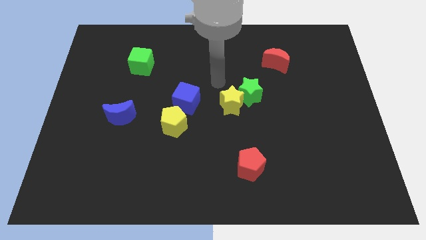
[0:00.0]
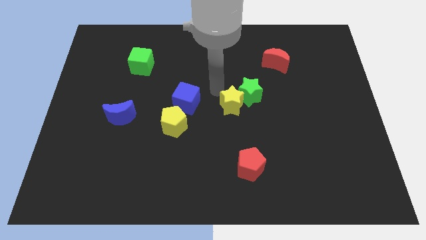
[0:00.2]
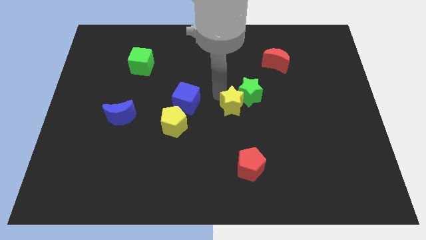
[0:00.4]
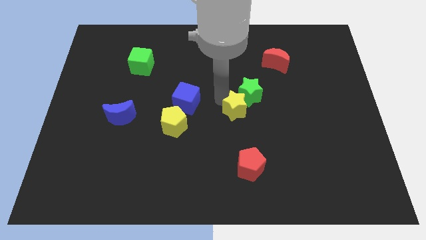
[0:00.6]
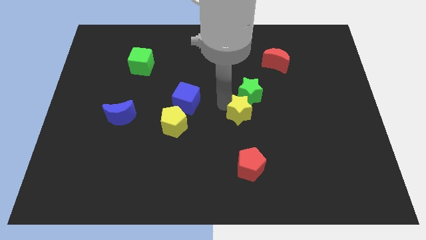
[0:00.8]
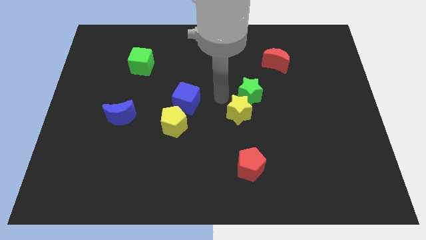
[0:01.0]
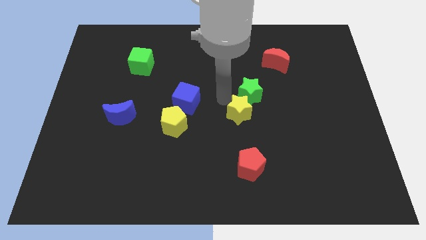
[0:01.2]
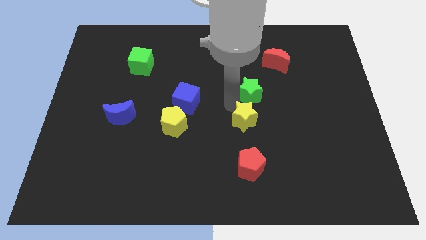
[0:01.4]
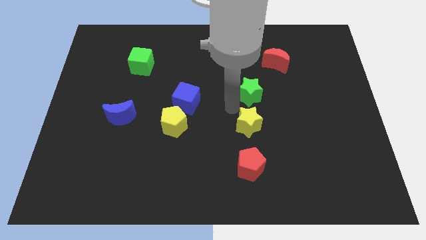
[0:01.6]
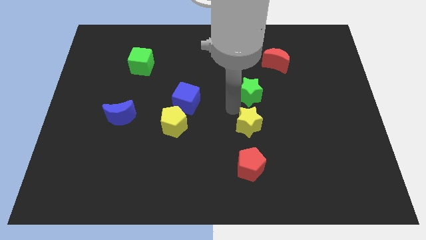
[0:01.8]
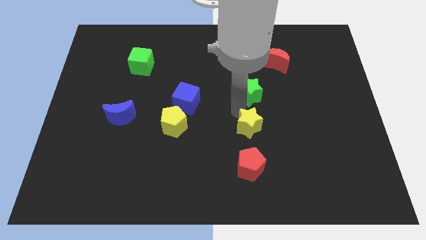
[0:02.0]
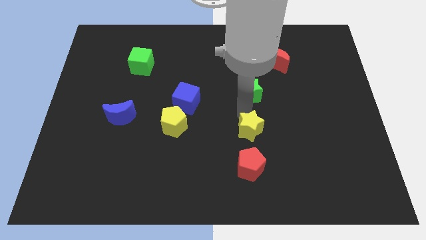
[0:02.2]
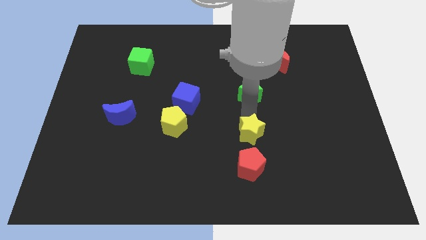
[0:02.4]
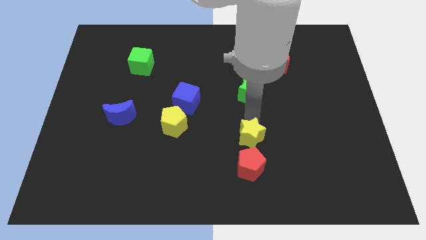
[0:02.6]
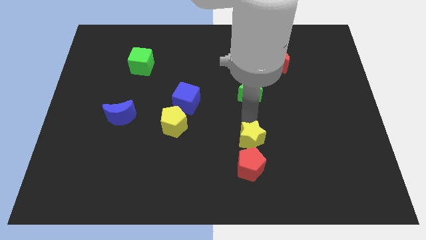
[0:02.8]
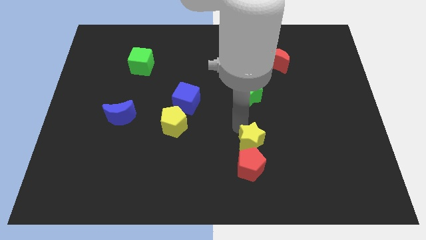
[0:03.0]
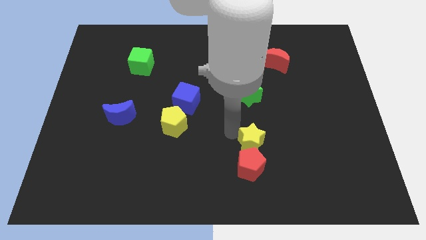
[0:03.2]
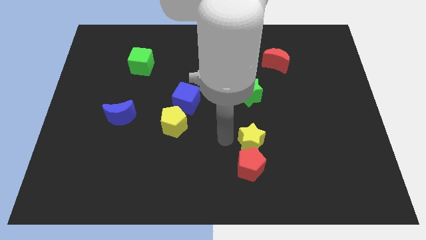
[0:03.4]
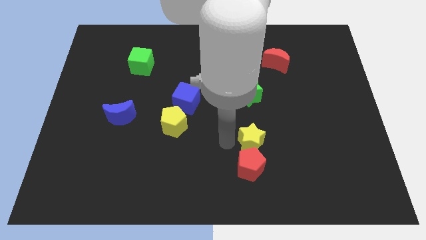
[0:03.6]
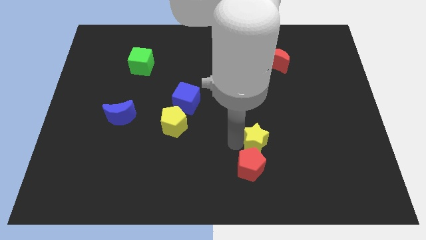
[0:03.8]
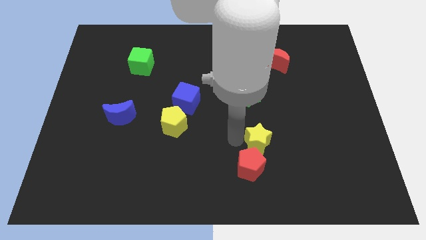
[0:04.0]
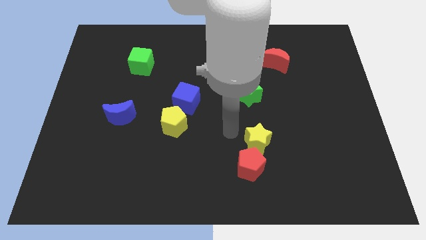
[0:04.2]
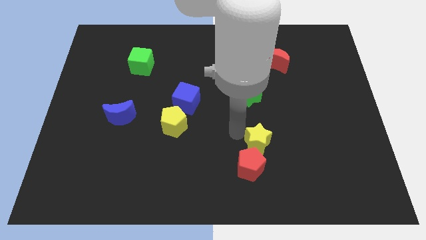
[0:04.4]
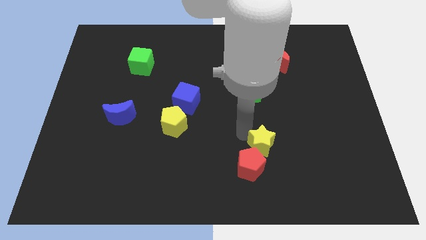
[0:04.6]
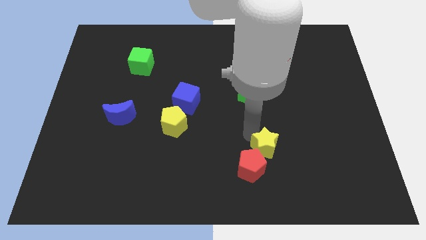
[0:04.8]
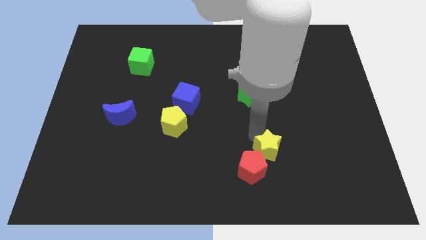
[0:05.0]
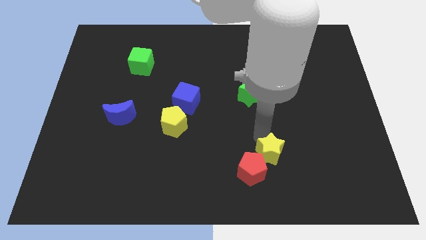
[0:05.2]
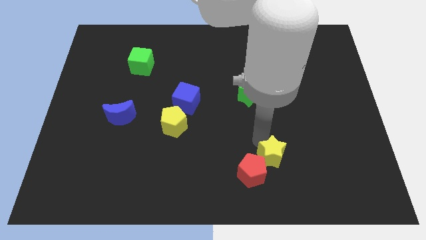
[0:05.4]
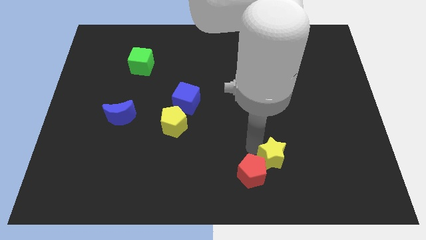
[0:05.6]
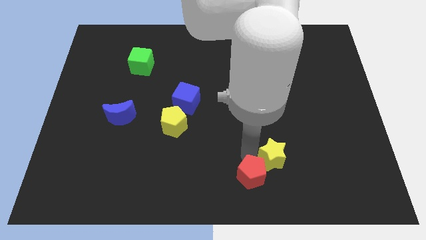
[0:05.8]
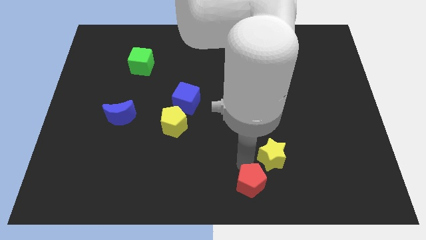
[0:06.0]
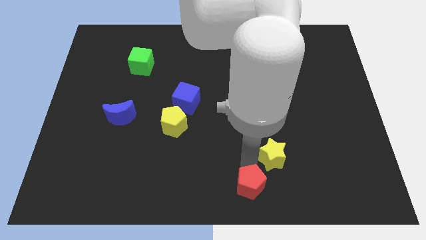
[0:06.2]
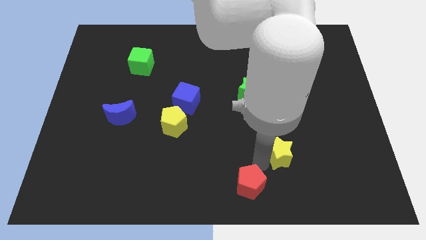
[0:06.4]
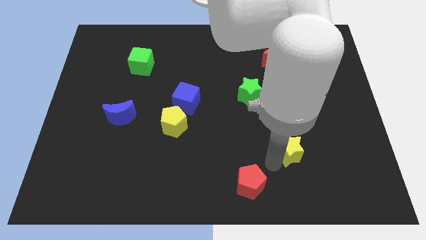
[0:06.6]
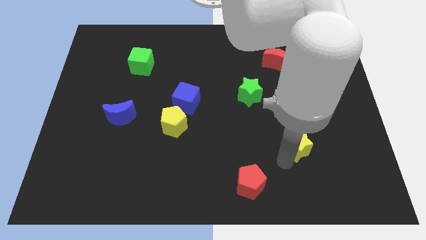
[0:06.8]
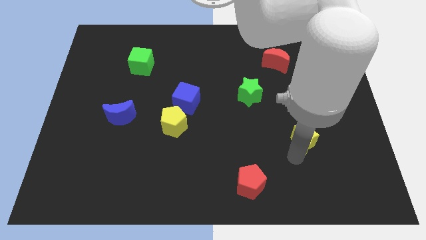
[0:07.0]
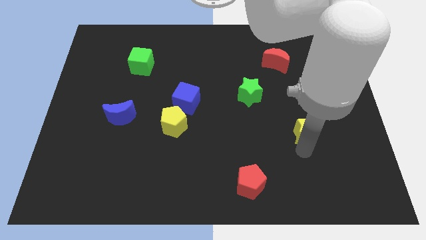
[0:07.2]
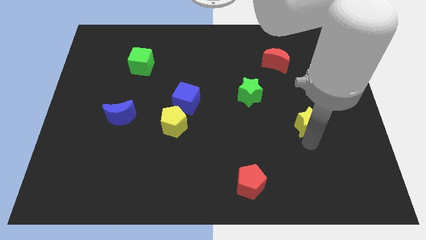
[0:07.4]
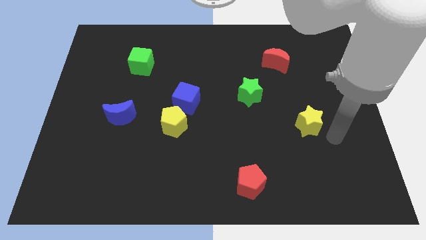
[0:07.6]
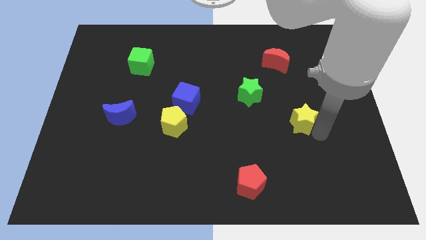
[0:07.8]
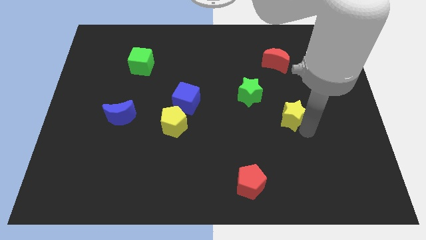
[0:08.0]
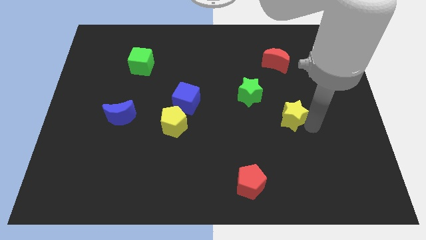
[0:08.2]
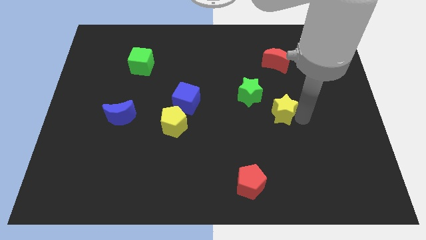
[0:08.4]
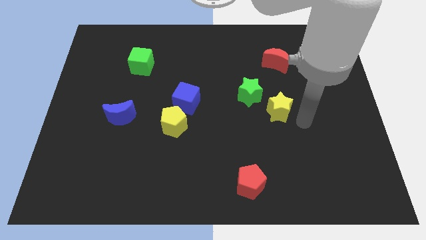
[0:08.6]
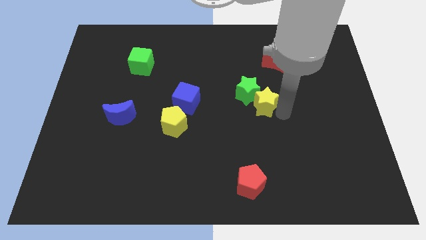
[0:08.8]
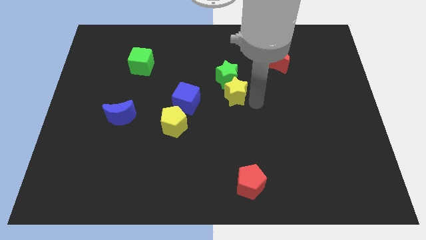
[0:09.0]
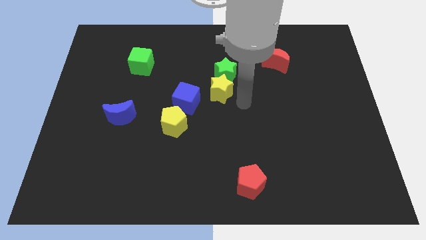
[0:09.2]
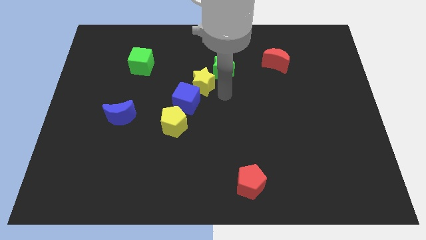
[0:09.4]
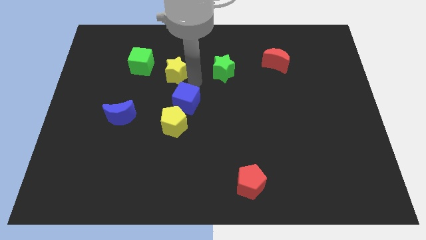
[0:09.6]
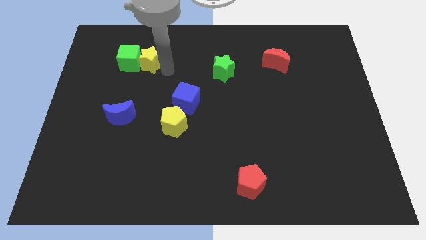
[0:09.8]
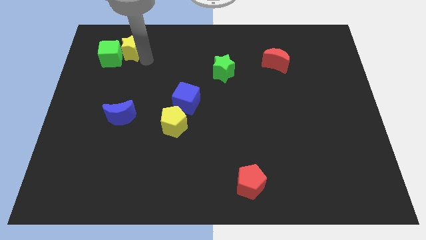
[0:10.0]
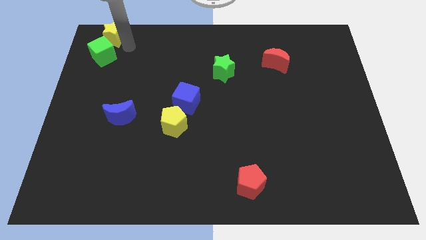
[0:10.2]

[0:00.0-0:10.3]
move the yellow star to the upper left corner

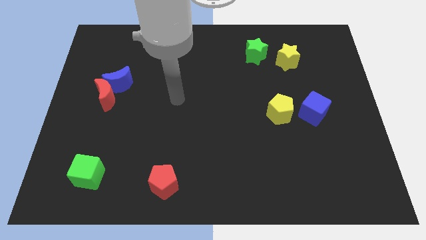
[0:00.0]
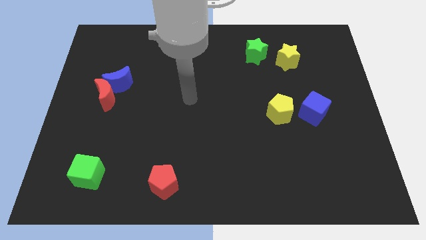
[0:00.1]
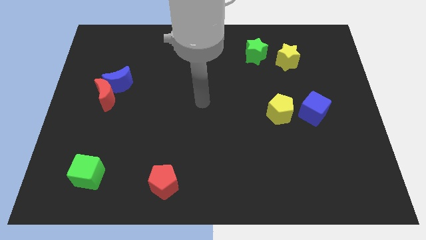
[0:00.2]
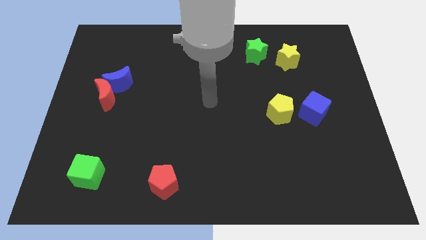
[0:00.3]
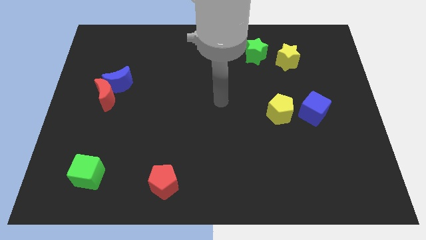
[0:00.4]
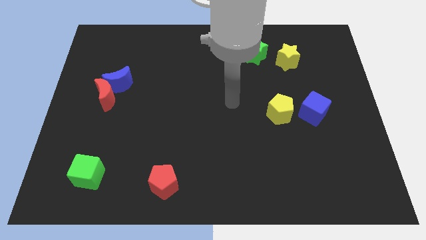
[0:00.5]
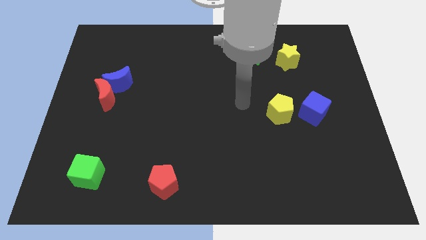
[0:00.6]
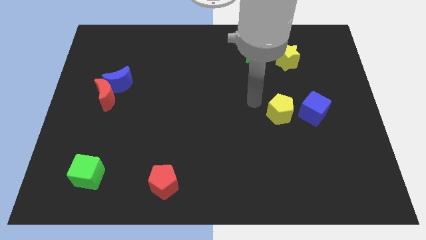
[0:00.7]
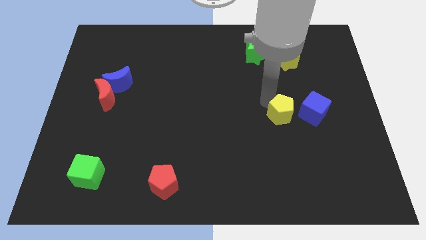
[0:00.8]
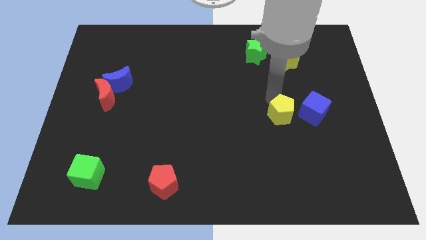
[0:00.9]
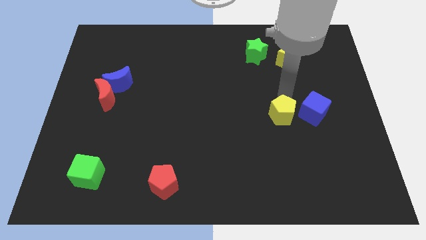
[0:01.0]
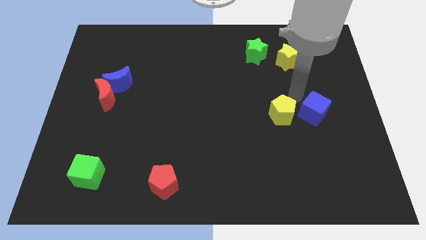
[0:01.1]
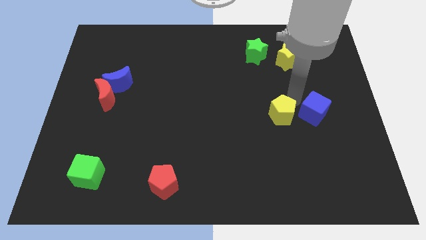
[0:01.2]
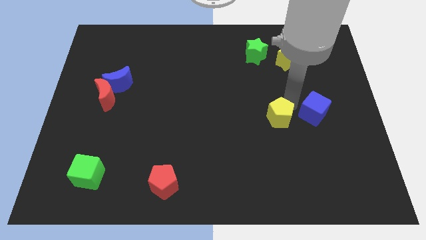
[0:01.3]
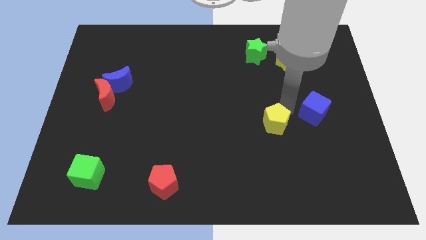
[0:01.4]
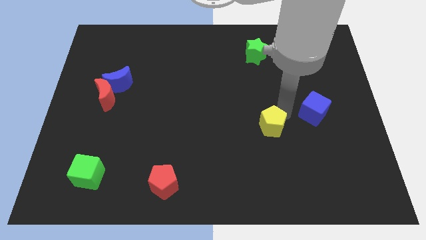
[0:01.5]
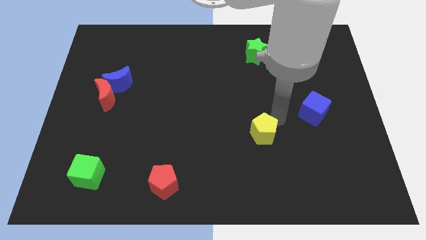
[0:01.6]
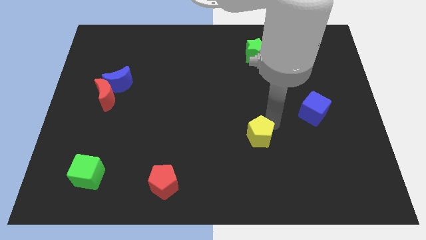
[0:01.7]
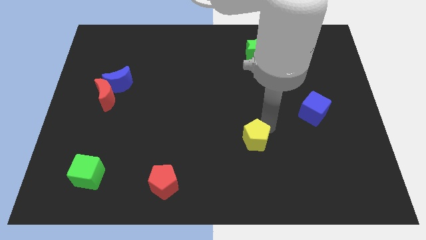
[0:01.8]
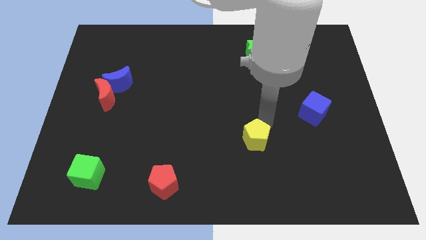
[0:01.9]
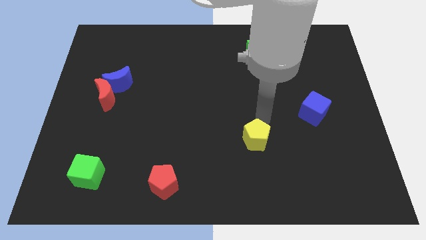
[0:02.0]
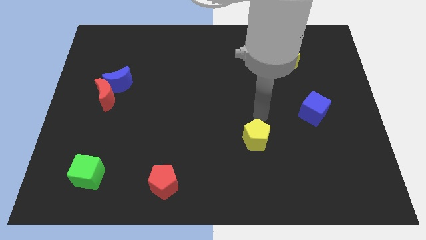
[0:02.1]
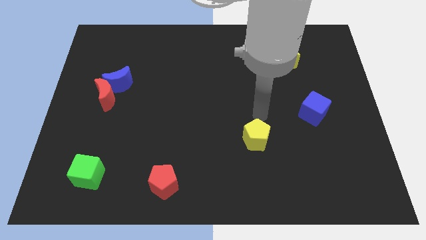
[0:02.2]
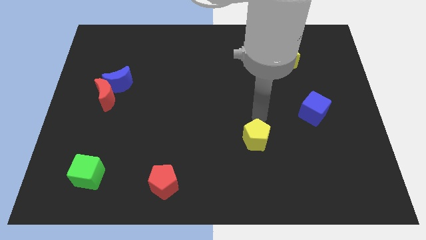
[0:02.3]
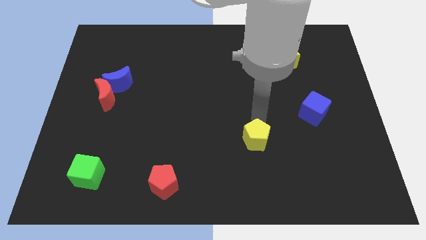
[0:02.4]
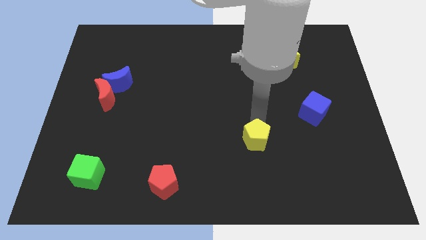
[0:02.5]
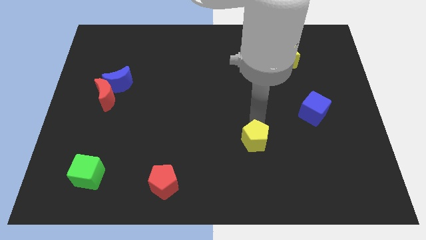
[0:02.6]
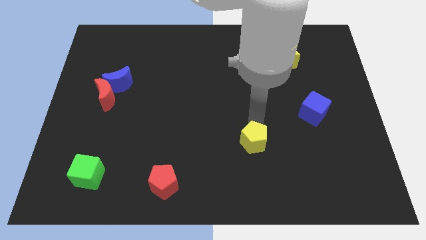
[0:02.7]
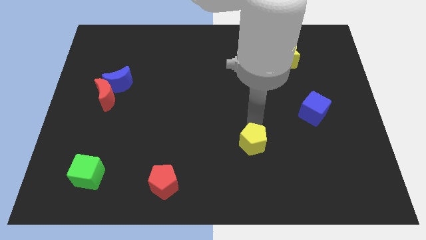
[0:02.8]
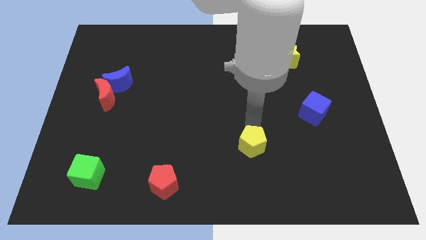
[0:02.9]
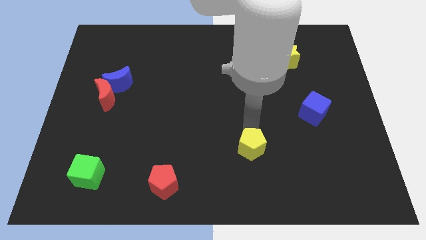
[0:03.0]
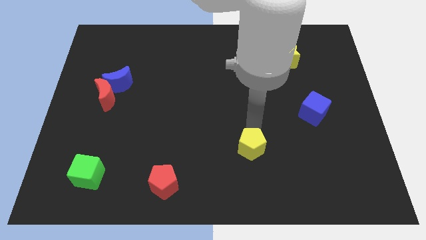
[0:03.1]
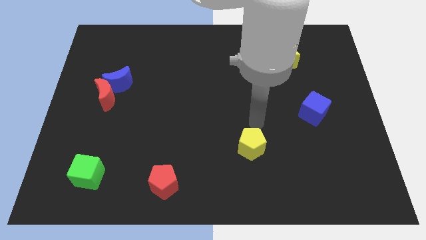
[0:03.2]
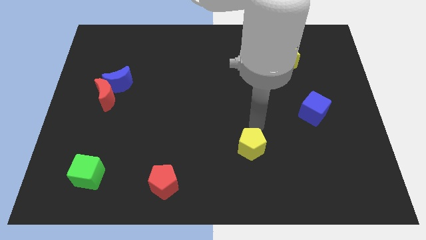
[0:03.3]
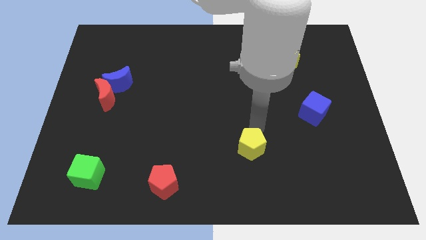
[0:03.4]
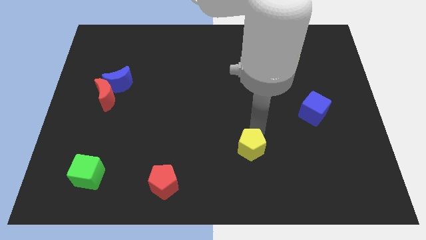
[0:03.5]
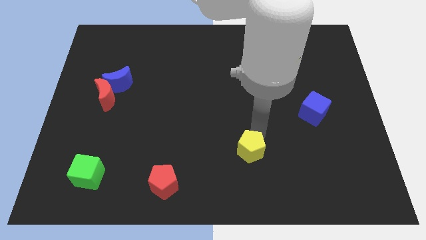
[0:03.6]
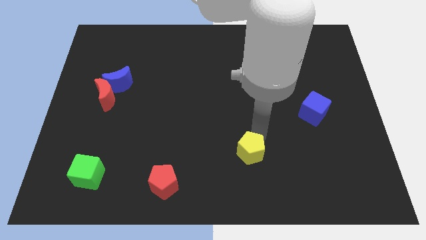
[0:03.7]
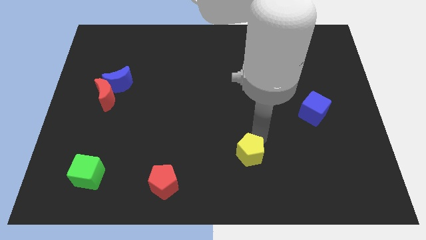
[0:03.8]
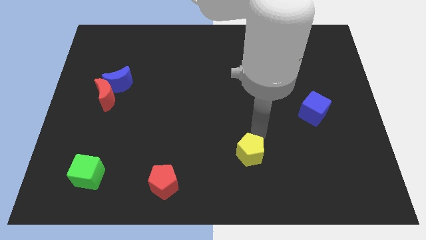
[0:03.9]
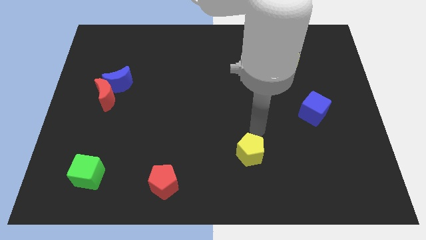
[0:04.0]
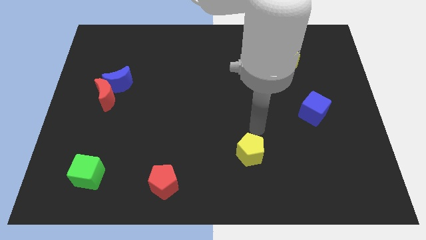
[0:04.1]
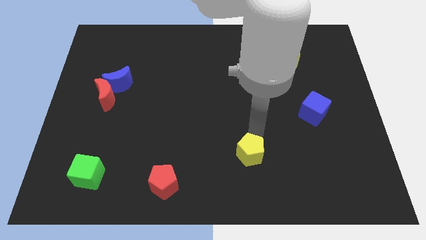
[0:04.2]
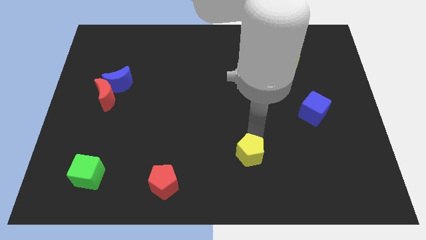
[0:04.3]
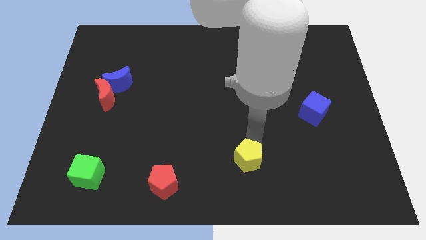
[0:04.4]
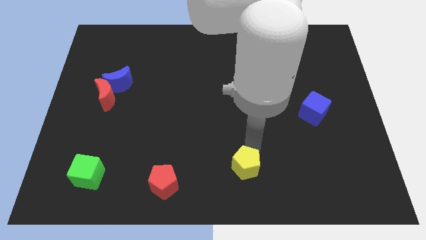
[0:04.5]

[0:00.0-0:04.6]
put the yellow pentagon to the bottom
